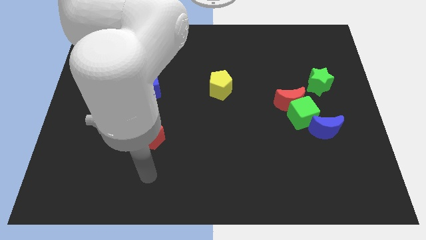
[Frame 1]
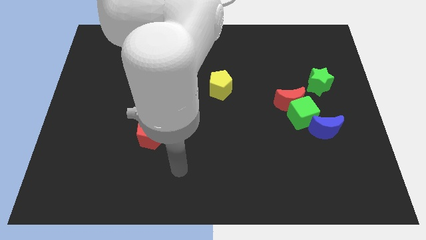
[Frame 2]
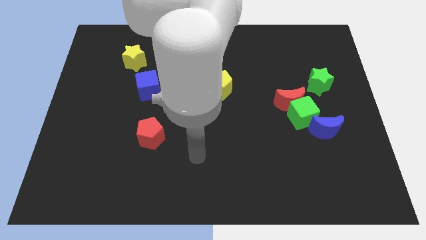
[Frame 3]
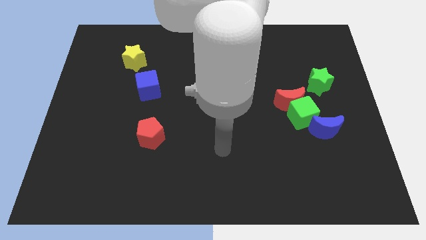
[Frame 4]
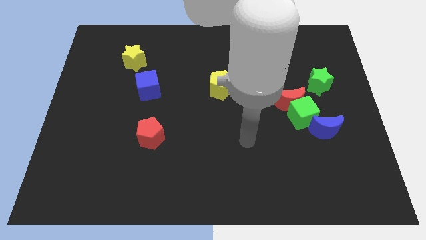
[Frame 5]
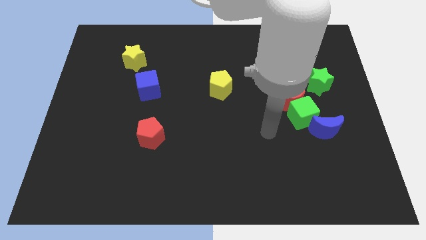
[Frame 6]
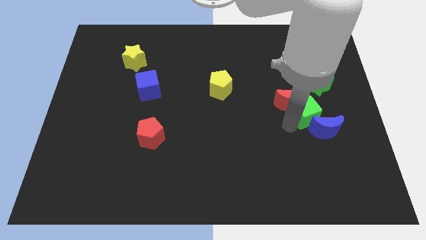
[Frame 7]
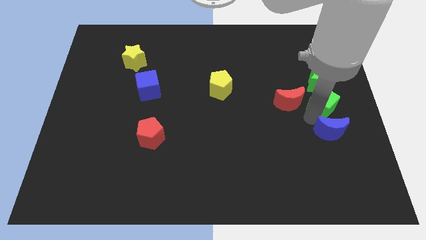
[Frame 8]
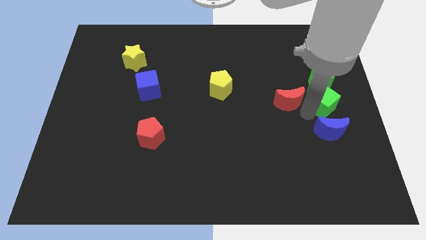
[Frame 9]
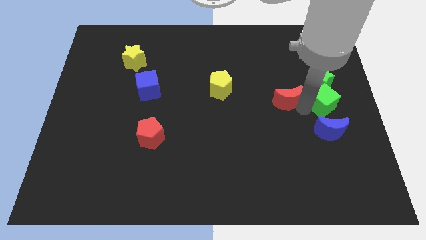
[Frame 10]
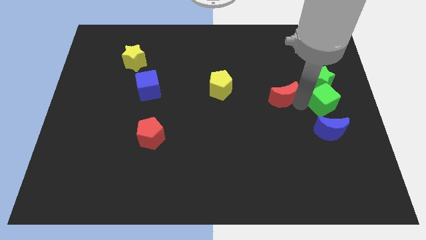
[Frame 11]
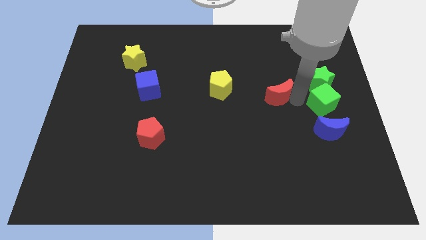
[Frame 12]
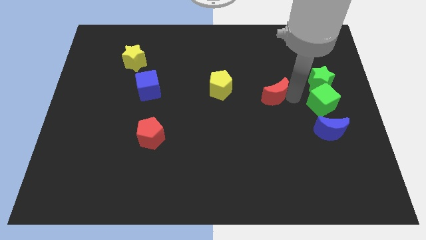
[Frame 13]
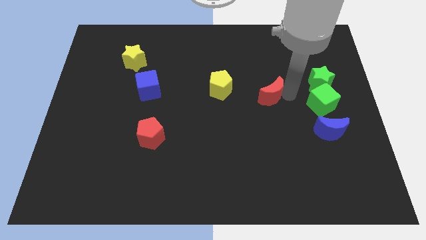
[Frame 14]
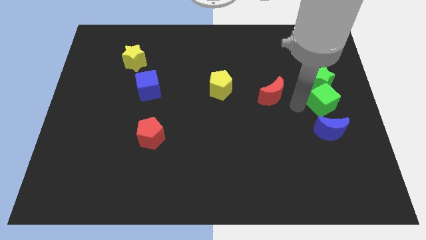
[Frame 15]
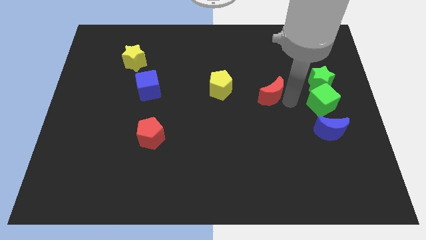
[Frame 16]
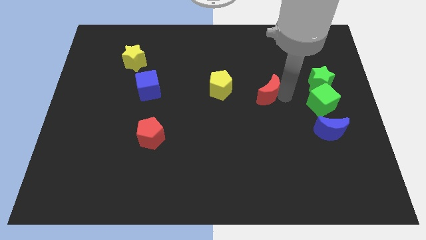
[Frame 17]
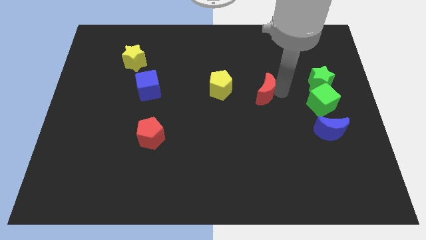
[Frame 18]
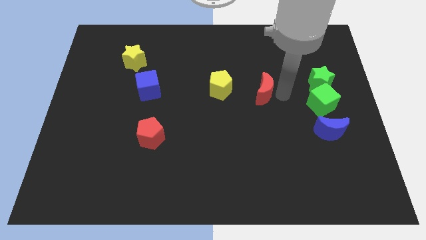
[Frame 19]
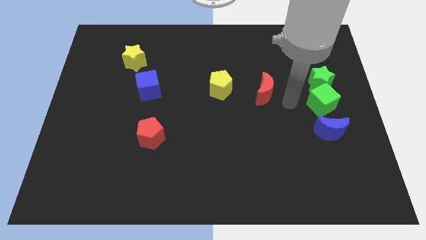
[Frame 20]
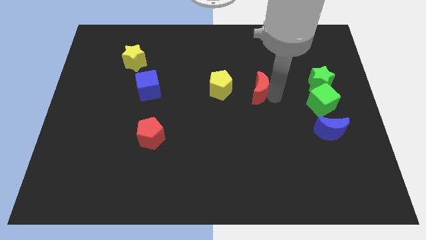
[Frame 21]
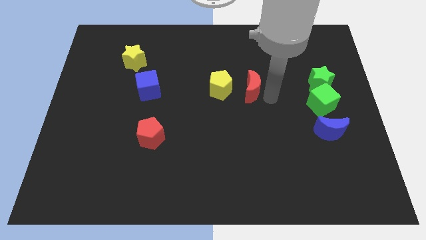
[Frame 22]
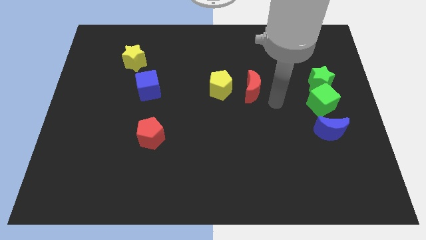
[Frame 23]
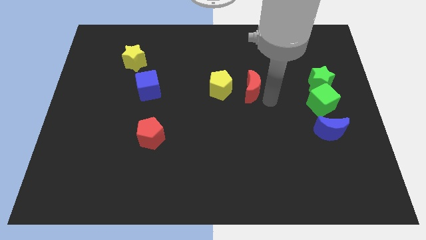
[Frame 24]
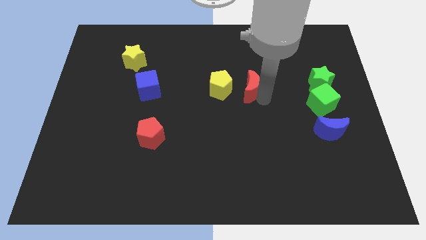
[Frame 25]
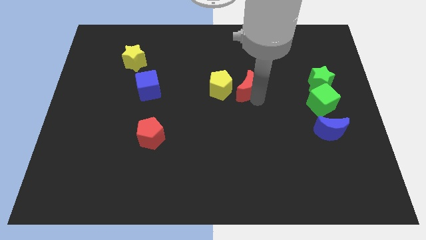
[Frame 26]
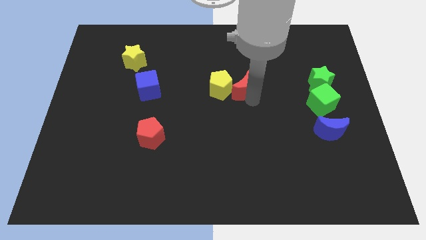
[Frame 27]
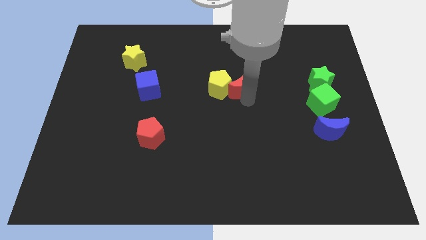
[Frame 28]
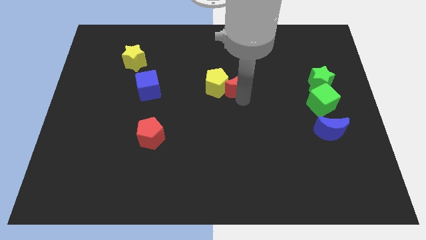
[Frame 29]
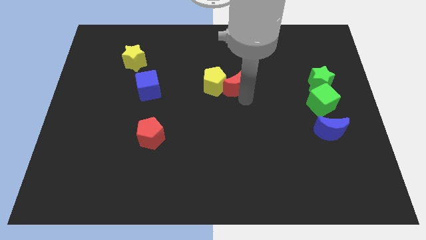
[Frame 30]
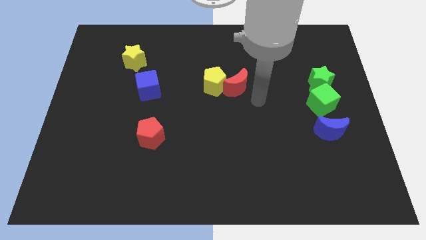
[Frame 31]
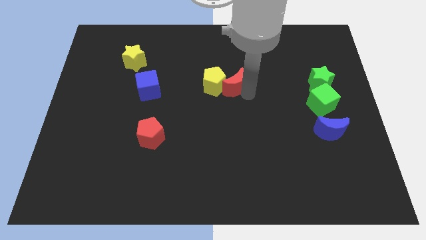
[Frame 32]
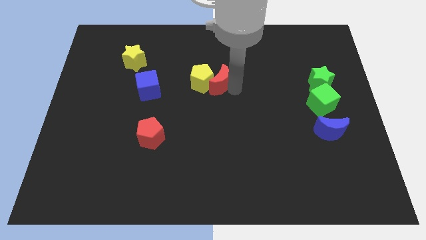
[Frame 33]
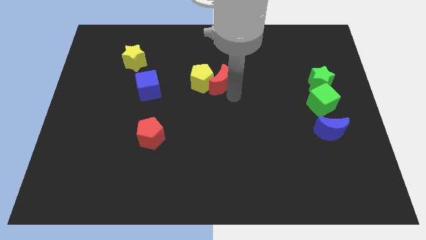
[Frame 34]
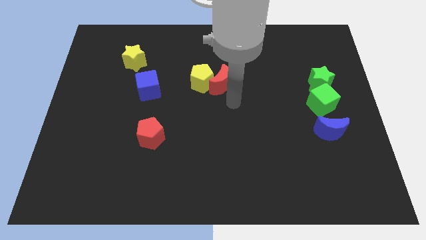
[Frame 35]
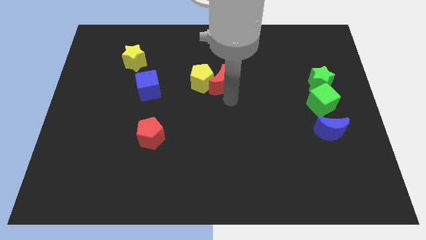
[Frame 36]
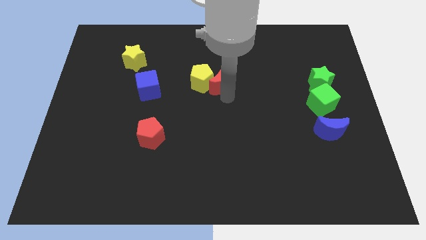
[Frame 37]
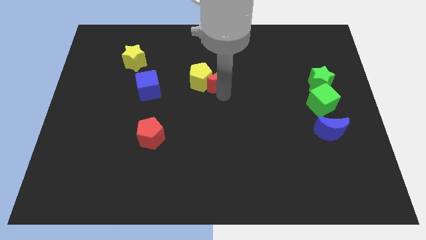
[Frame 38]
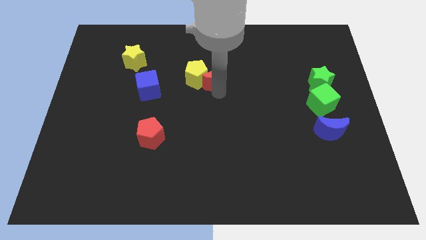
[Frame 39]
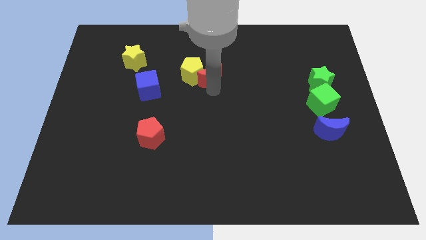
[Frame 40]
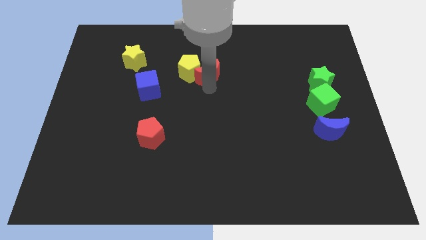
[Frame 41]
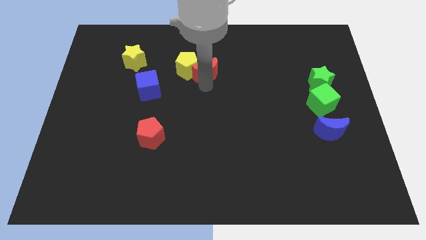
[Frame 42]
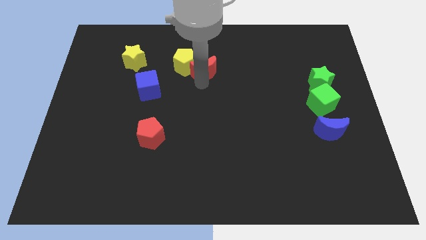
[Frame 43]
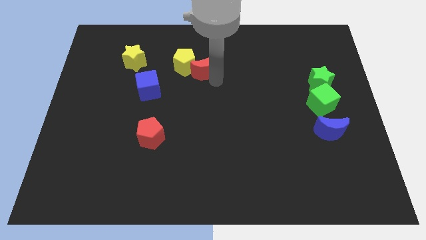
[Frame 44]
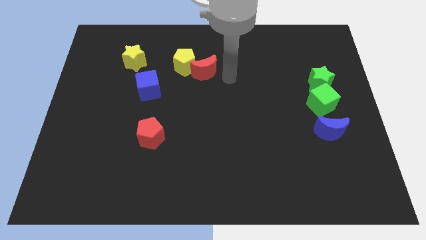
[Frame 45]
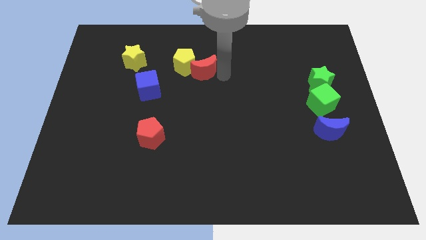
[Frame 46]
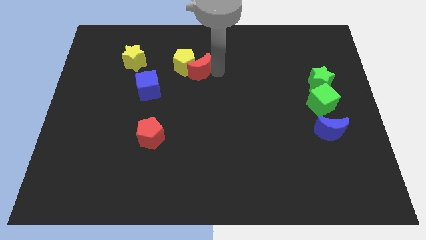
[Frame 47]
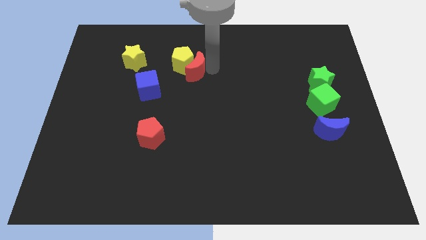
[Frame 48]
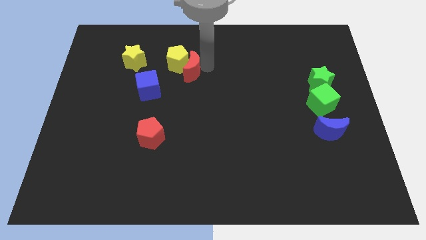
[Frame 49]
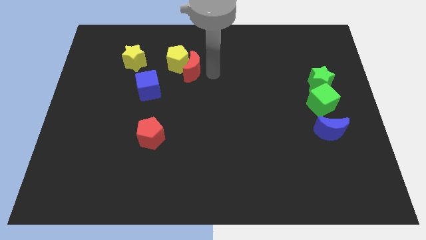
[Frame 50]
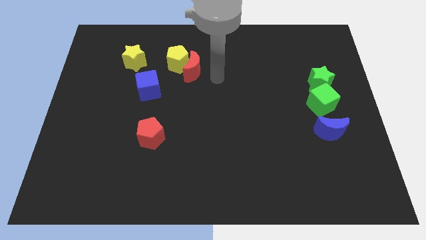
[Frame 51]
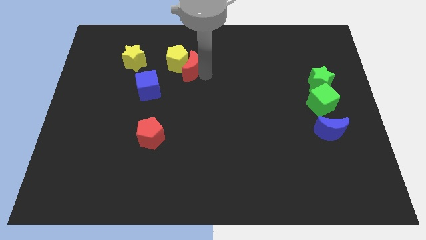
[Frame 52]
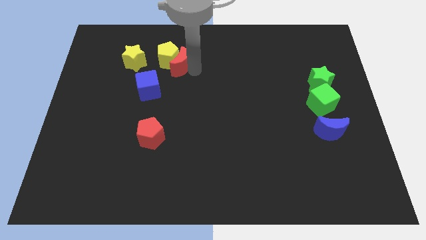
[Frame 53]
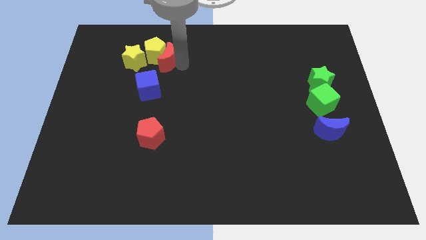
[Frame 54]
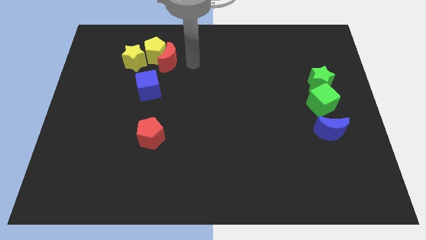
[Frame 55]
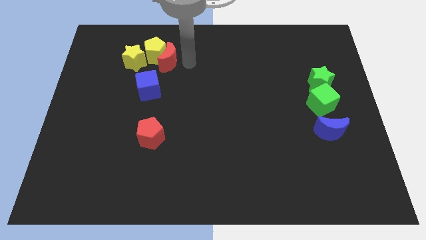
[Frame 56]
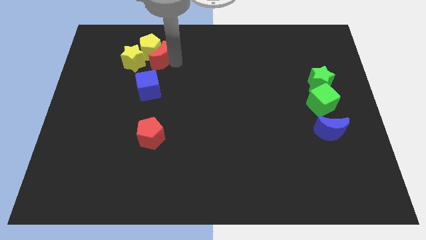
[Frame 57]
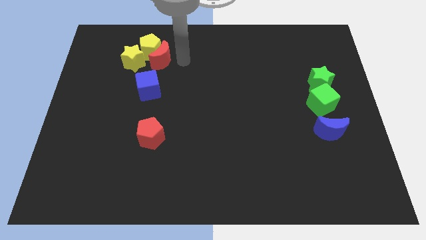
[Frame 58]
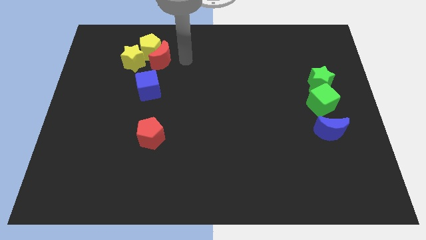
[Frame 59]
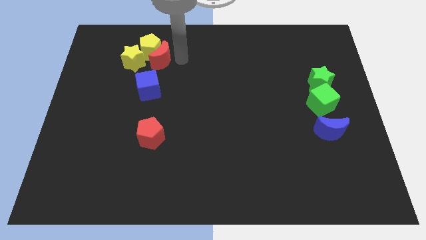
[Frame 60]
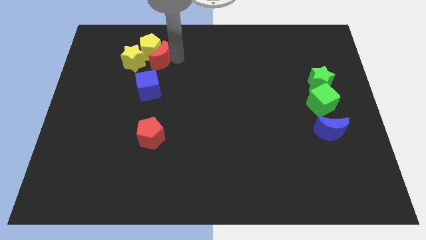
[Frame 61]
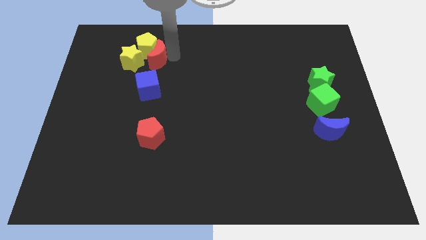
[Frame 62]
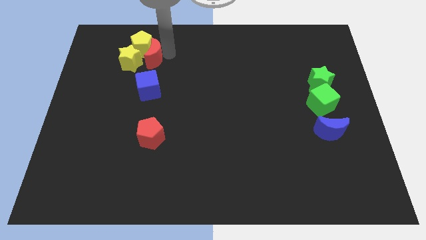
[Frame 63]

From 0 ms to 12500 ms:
move the red moon towards the yellow star

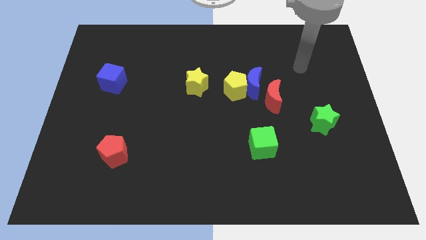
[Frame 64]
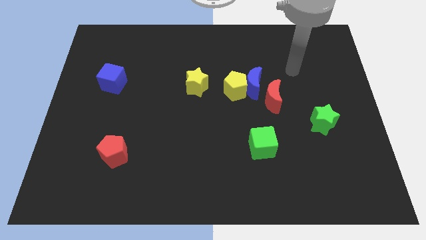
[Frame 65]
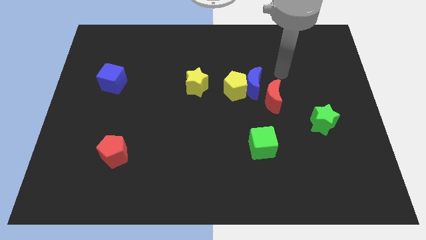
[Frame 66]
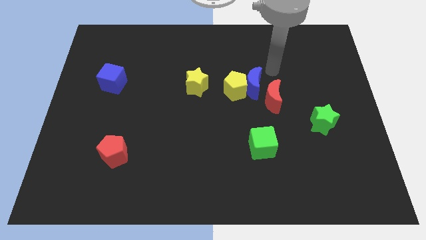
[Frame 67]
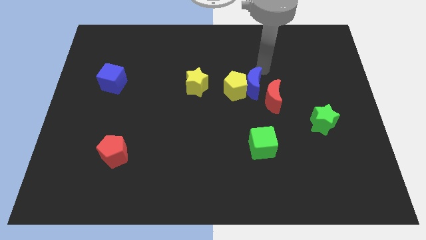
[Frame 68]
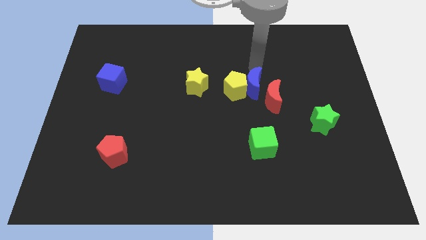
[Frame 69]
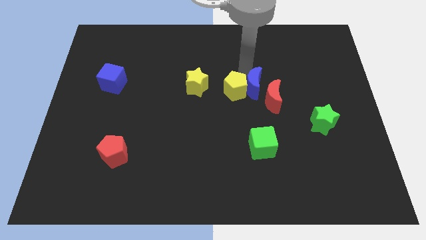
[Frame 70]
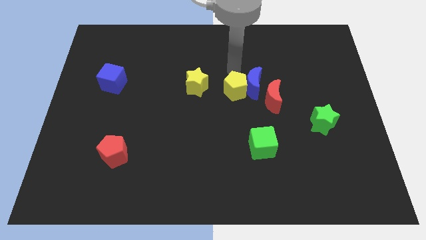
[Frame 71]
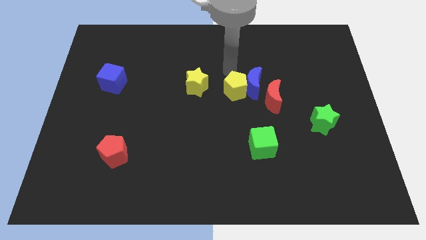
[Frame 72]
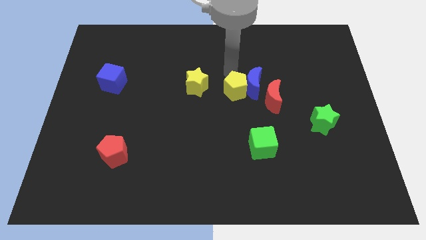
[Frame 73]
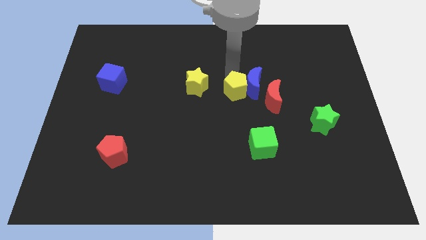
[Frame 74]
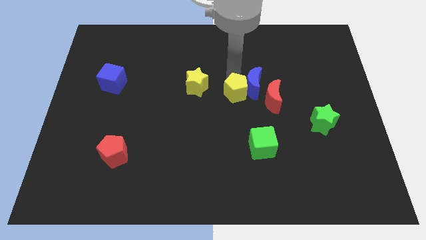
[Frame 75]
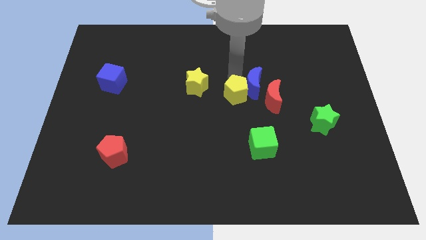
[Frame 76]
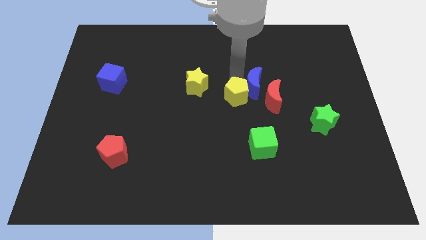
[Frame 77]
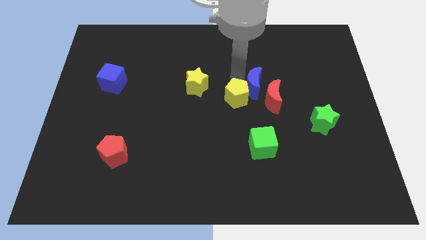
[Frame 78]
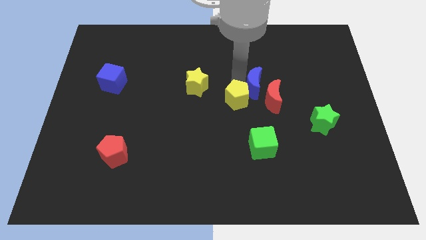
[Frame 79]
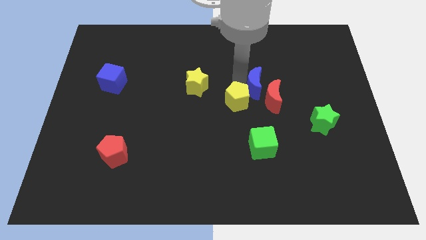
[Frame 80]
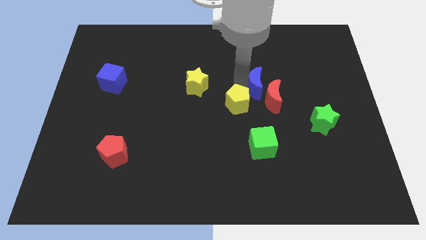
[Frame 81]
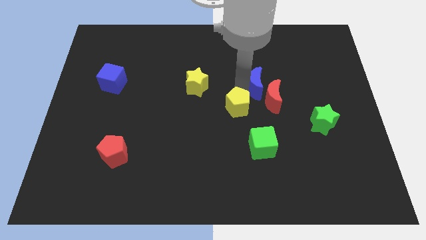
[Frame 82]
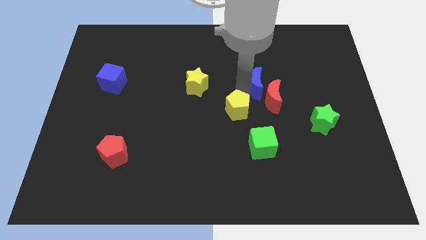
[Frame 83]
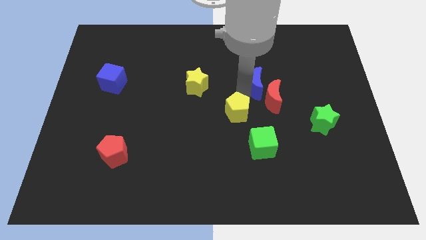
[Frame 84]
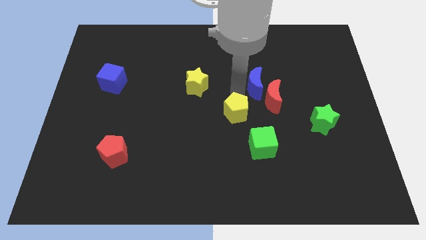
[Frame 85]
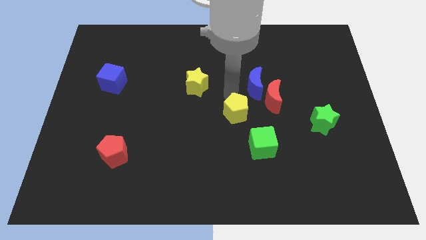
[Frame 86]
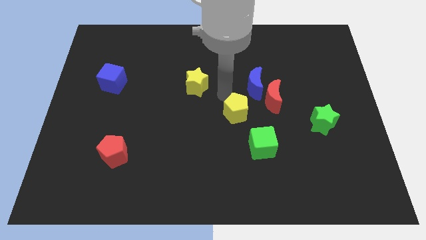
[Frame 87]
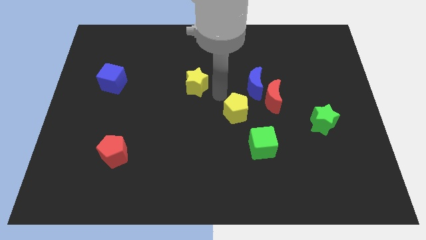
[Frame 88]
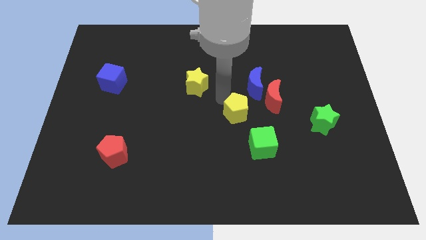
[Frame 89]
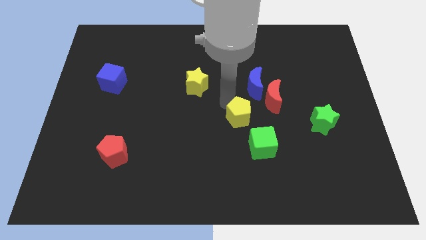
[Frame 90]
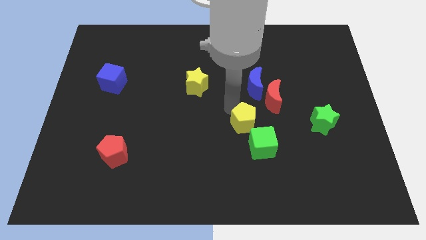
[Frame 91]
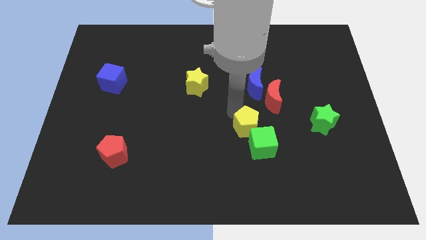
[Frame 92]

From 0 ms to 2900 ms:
slide the yellow pentagon towards the green cube
